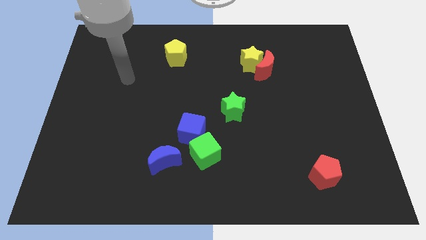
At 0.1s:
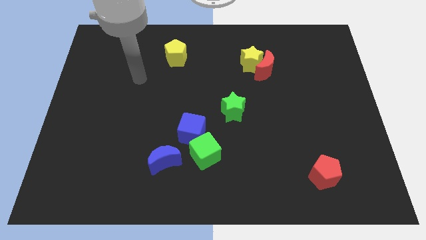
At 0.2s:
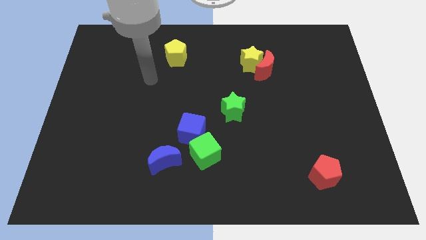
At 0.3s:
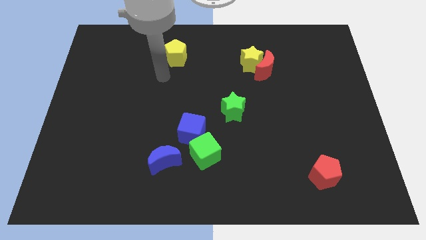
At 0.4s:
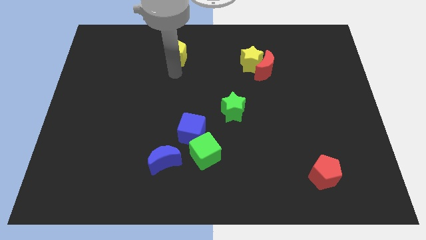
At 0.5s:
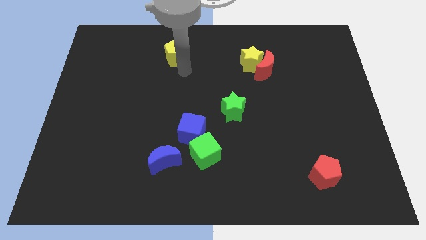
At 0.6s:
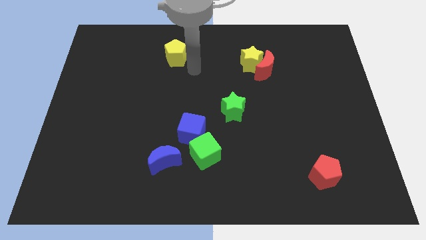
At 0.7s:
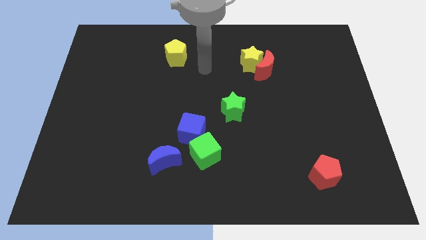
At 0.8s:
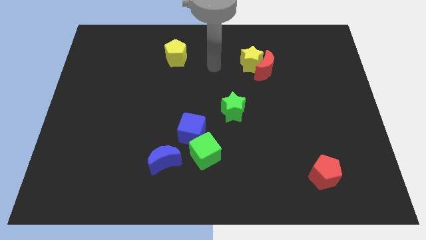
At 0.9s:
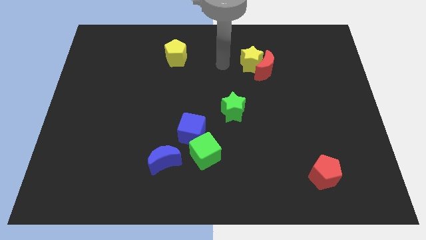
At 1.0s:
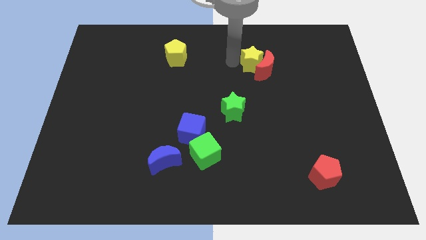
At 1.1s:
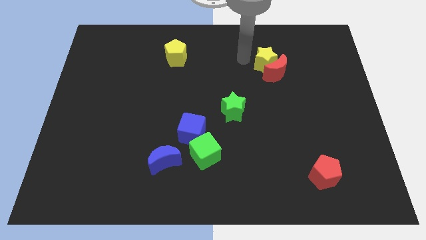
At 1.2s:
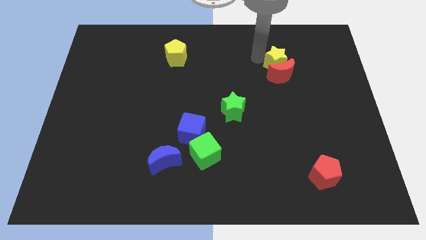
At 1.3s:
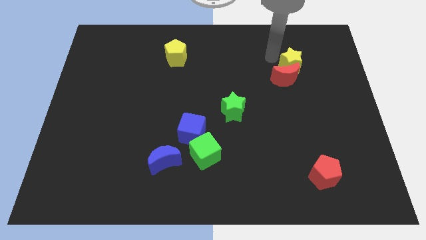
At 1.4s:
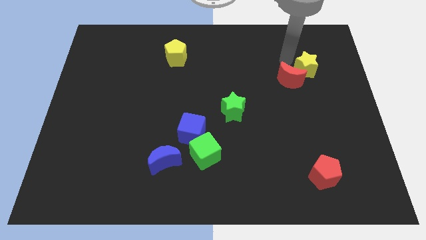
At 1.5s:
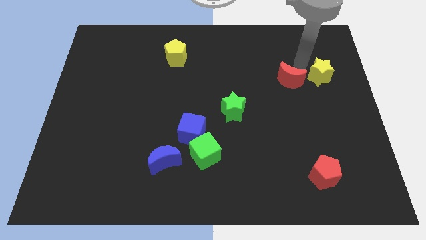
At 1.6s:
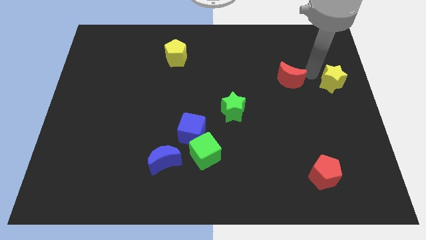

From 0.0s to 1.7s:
move the red moon away from the yellow star

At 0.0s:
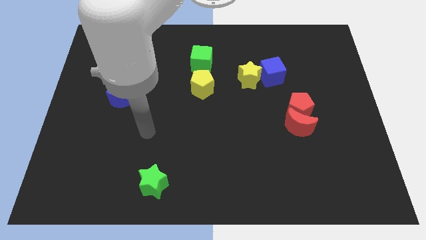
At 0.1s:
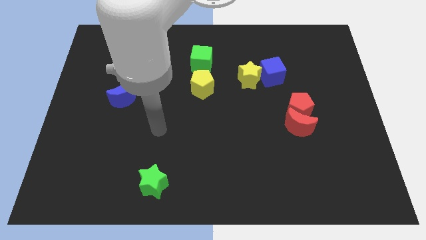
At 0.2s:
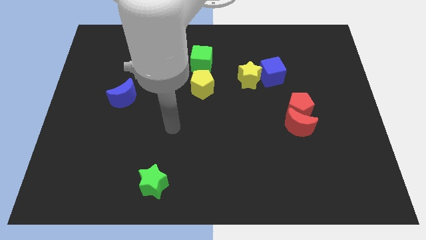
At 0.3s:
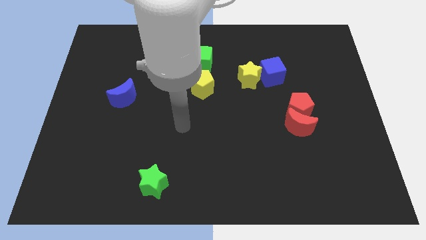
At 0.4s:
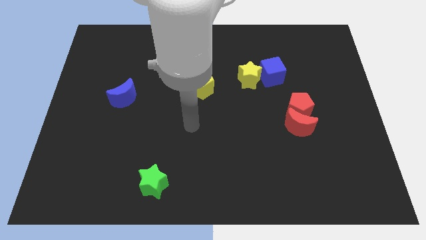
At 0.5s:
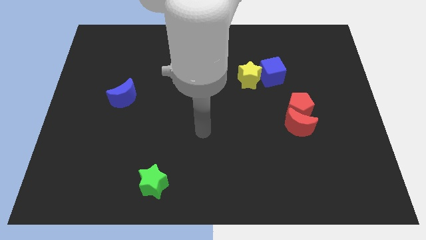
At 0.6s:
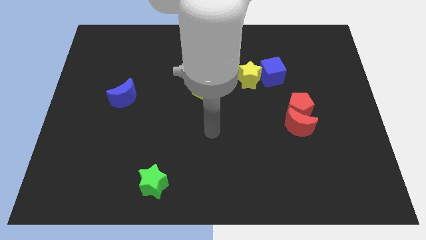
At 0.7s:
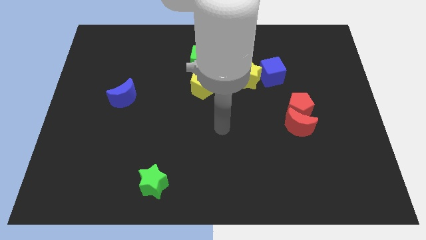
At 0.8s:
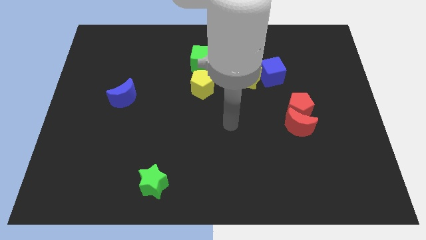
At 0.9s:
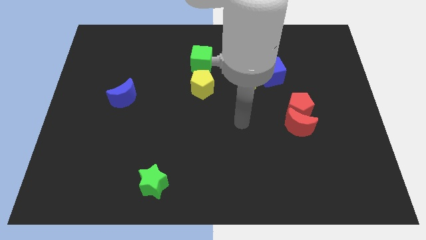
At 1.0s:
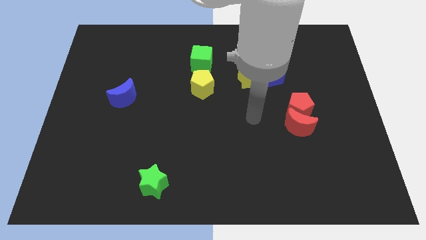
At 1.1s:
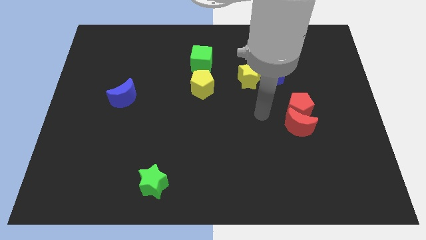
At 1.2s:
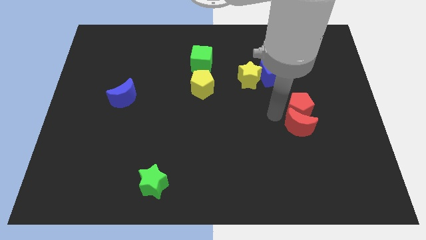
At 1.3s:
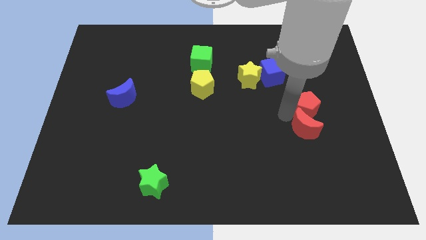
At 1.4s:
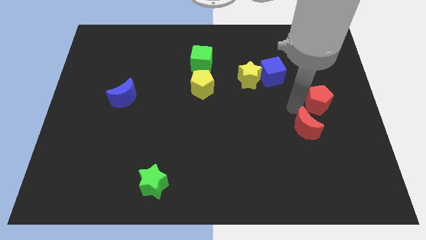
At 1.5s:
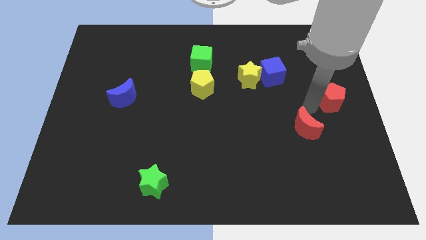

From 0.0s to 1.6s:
pull the red moon apart from the red pentagon

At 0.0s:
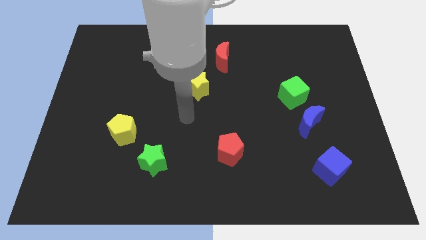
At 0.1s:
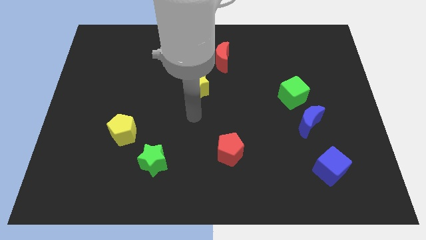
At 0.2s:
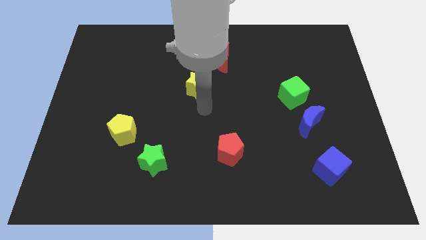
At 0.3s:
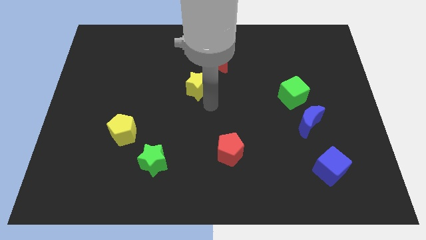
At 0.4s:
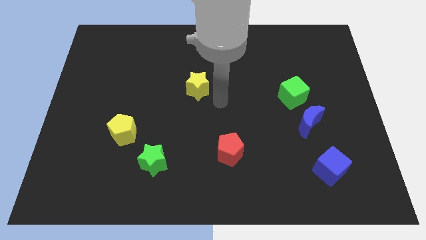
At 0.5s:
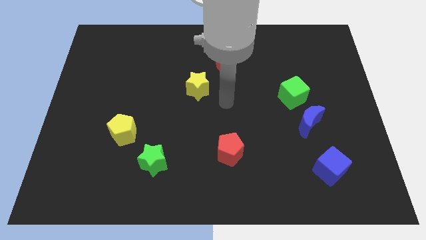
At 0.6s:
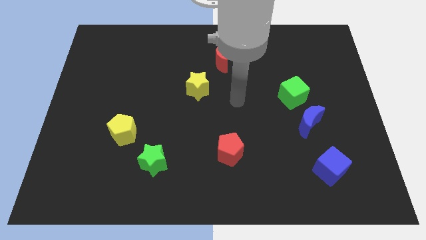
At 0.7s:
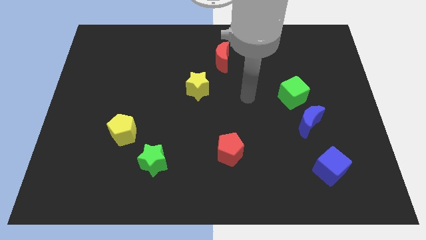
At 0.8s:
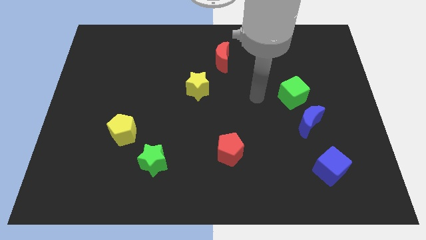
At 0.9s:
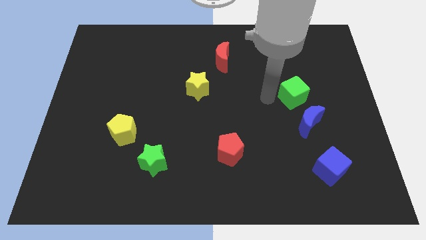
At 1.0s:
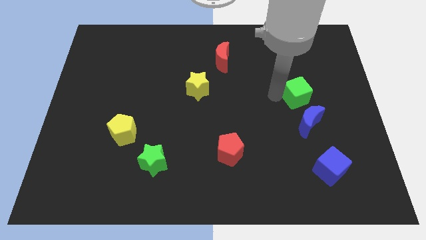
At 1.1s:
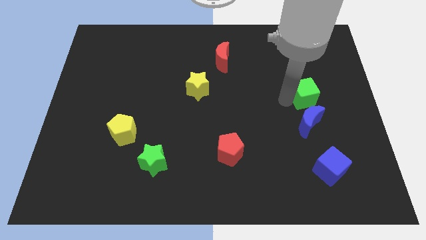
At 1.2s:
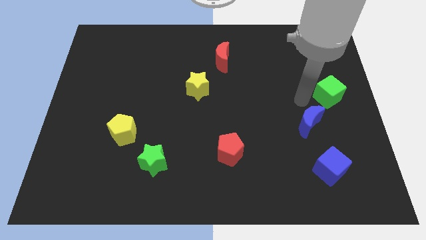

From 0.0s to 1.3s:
move the blue moon away from the green cube

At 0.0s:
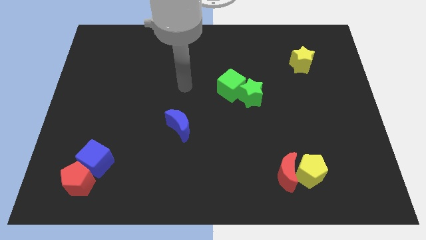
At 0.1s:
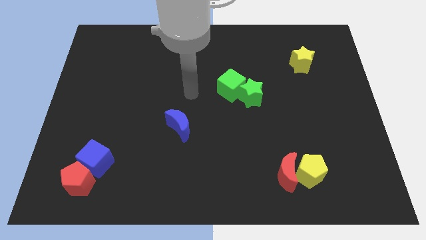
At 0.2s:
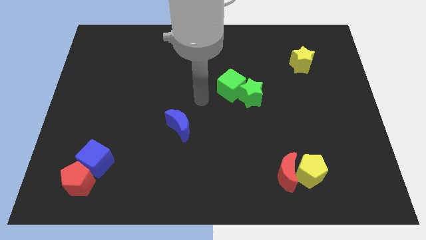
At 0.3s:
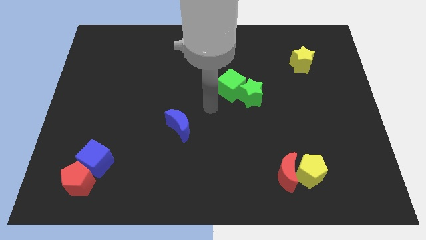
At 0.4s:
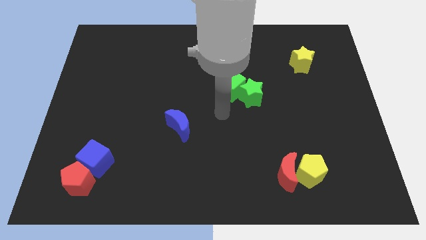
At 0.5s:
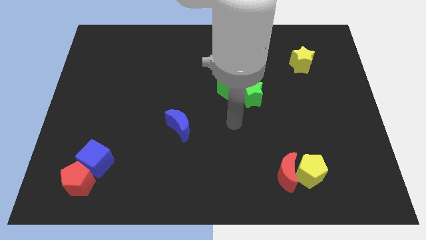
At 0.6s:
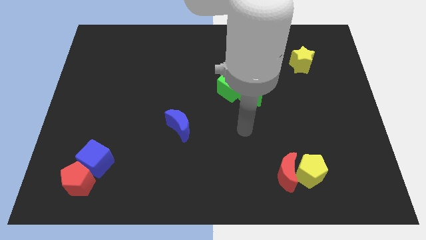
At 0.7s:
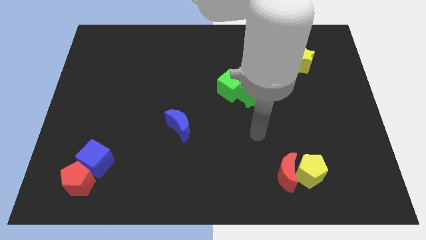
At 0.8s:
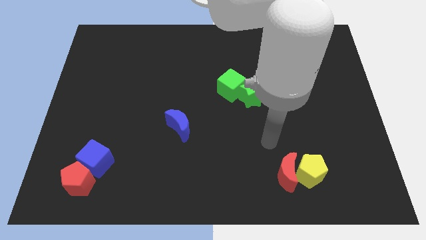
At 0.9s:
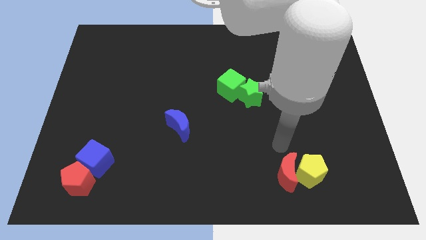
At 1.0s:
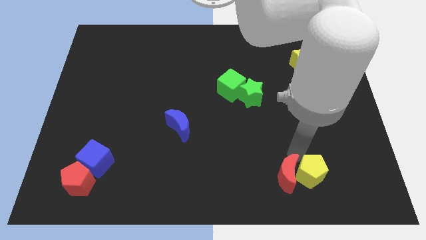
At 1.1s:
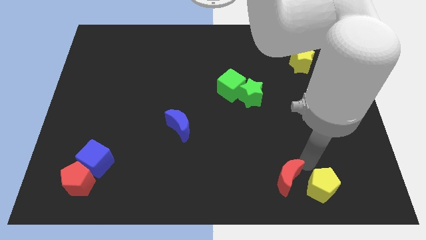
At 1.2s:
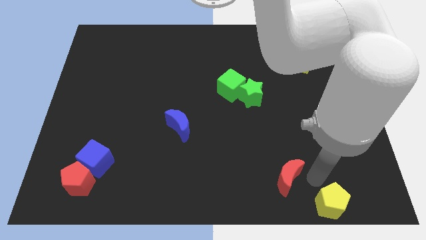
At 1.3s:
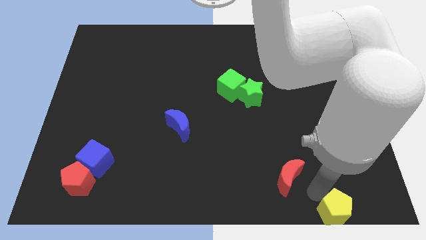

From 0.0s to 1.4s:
move the red moon away from the yellow pentagon

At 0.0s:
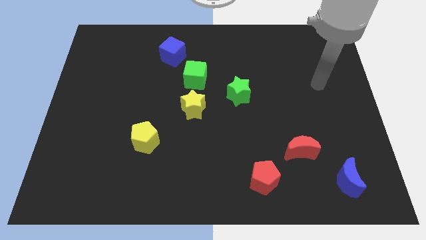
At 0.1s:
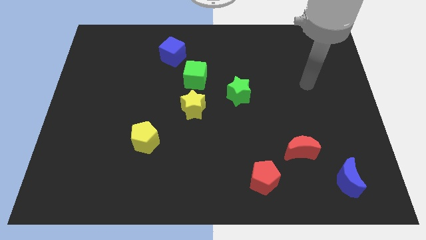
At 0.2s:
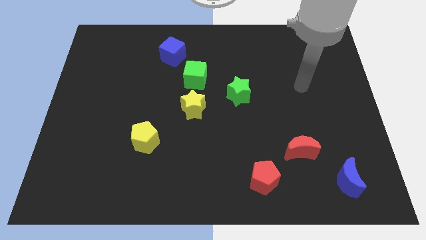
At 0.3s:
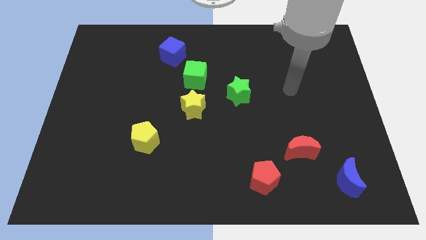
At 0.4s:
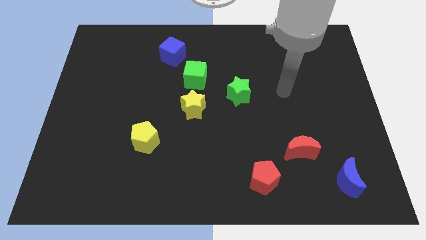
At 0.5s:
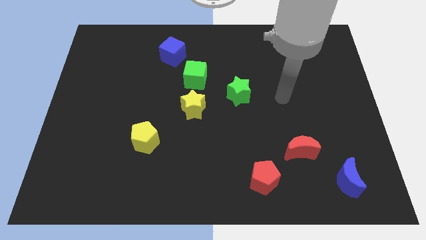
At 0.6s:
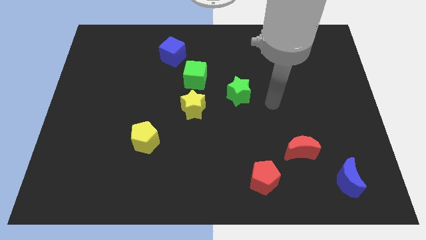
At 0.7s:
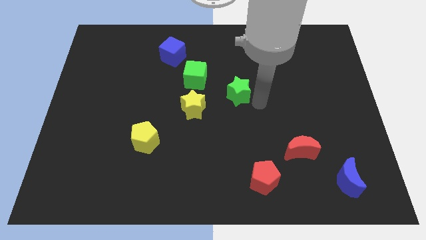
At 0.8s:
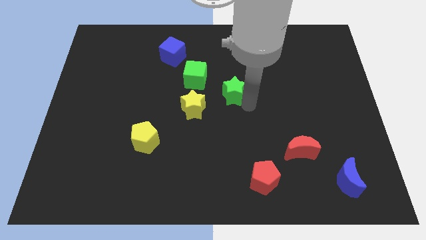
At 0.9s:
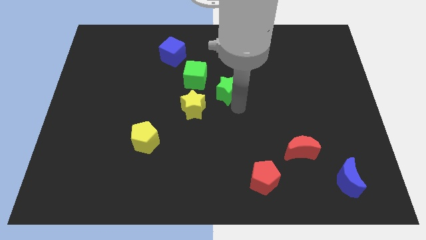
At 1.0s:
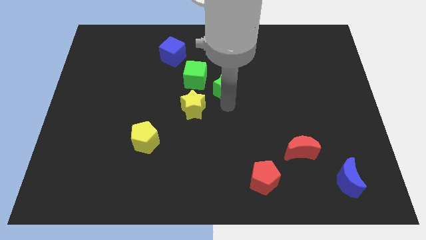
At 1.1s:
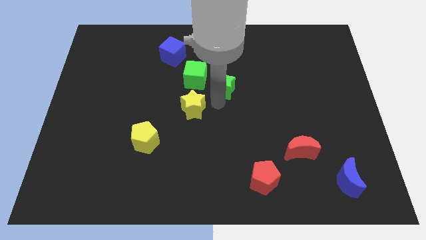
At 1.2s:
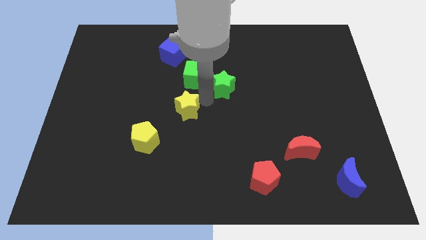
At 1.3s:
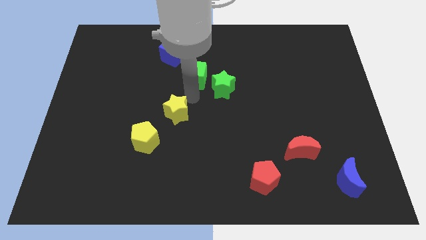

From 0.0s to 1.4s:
separate the green cube from the yellow star

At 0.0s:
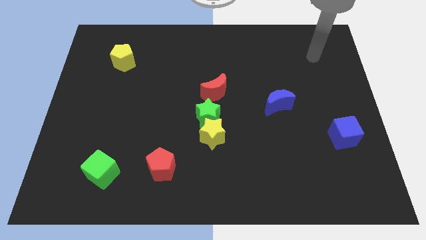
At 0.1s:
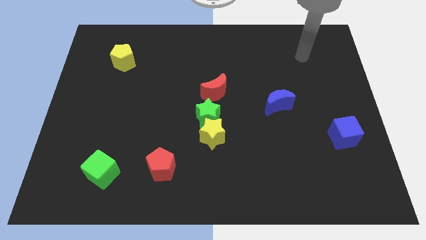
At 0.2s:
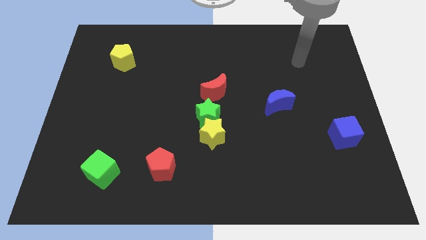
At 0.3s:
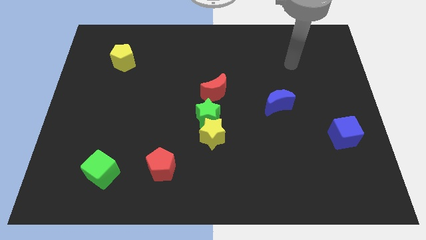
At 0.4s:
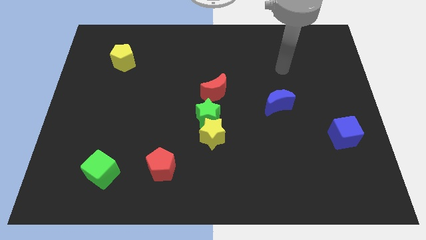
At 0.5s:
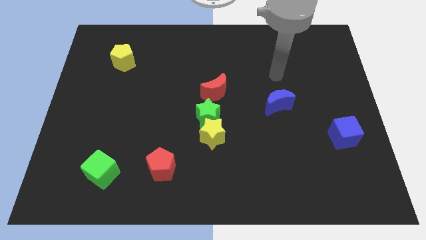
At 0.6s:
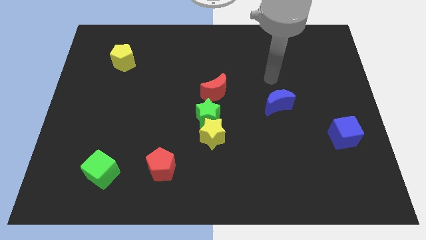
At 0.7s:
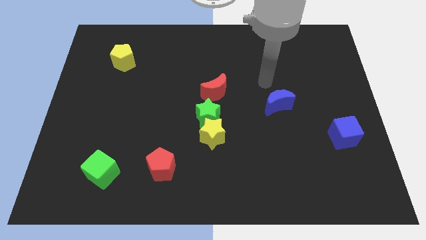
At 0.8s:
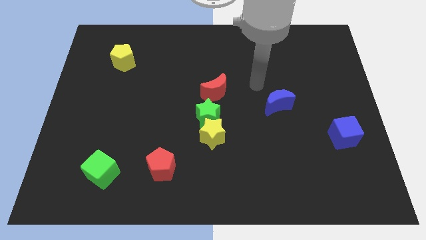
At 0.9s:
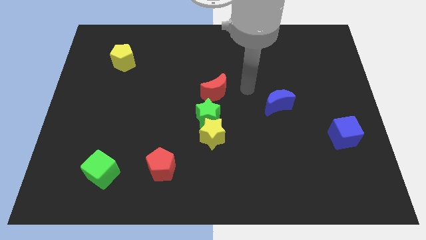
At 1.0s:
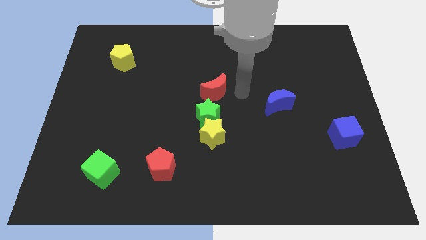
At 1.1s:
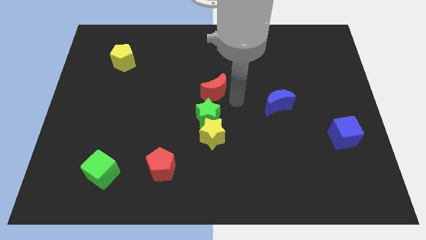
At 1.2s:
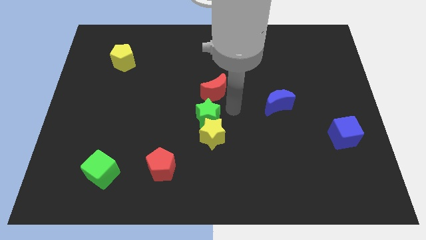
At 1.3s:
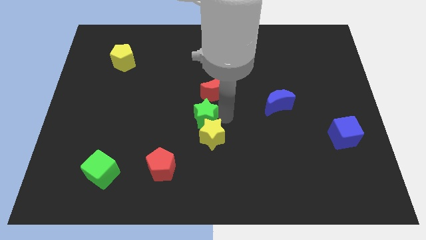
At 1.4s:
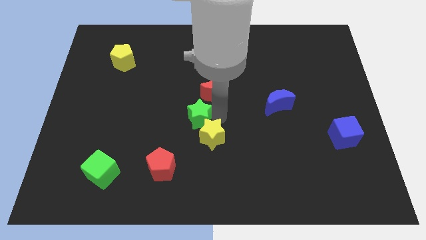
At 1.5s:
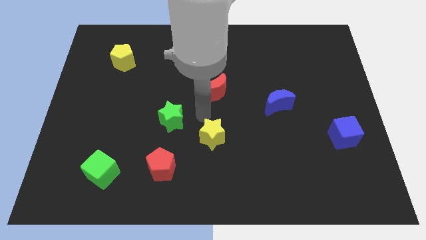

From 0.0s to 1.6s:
pull the yellow star apart from the green star

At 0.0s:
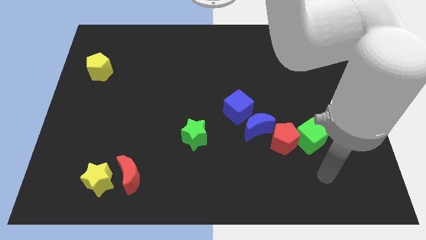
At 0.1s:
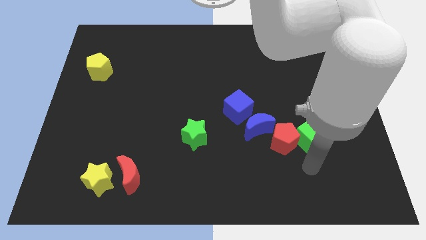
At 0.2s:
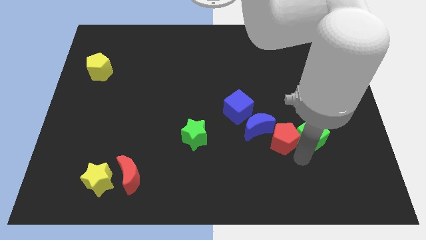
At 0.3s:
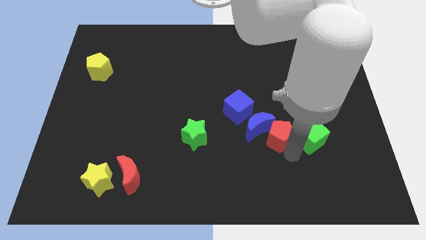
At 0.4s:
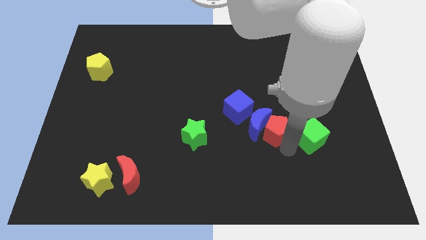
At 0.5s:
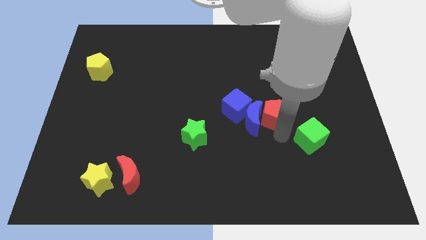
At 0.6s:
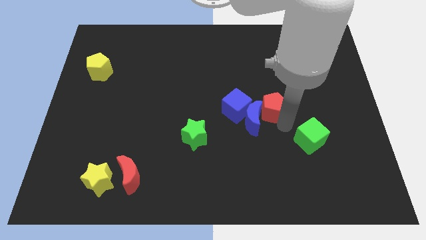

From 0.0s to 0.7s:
move the green cube away from the red pentagon
